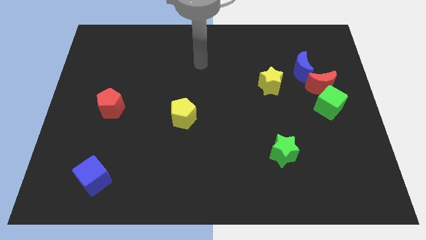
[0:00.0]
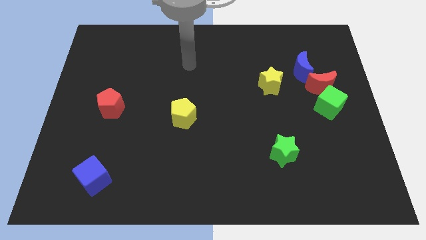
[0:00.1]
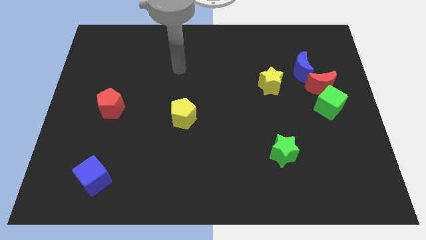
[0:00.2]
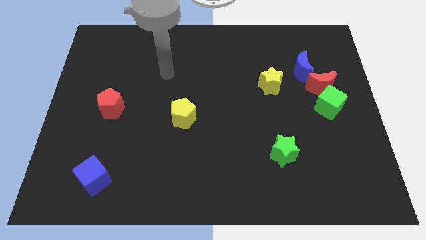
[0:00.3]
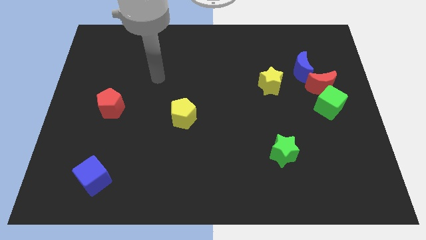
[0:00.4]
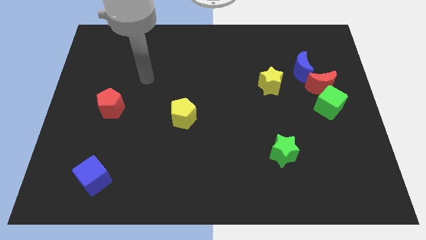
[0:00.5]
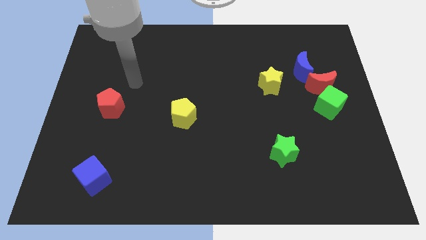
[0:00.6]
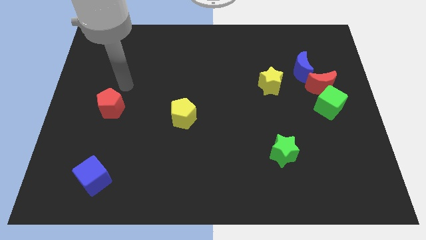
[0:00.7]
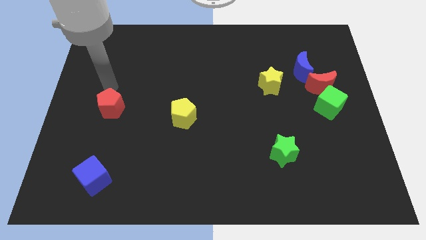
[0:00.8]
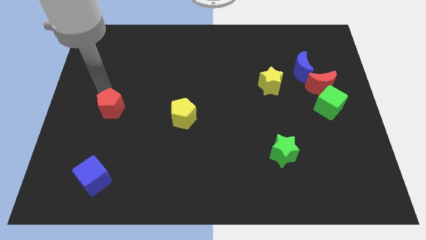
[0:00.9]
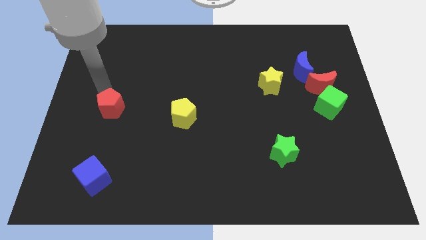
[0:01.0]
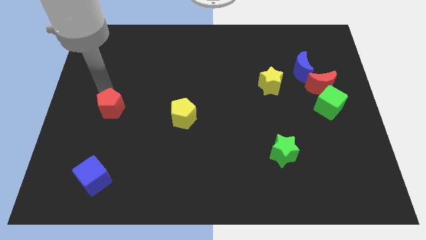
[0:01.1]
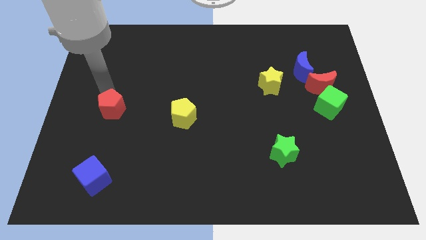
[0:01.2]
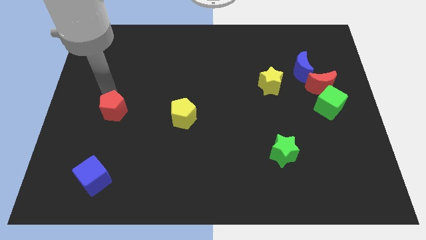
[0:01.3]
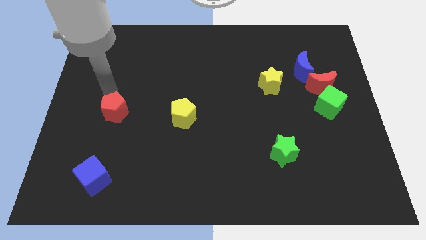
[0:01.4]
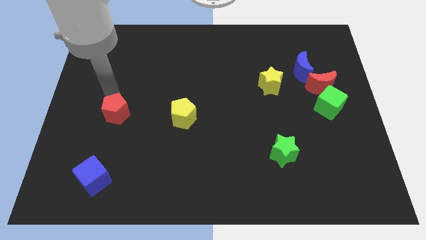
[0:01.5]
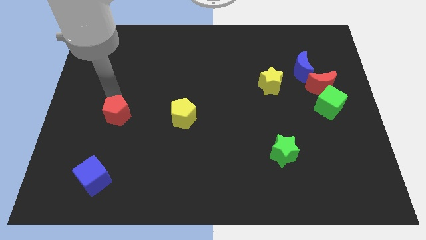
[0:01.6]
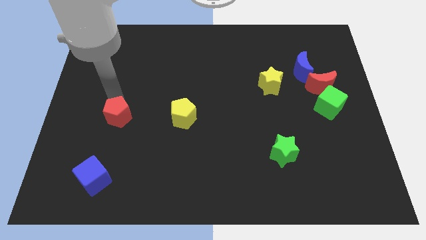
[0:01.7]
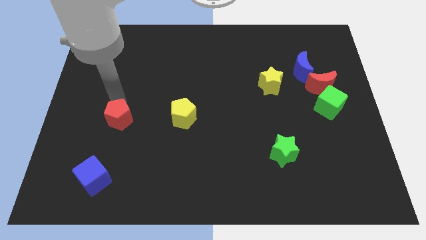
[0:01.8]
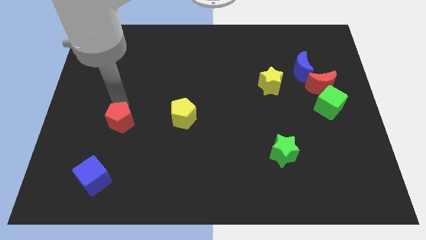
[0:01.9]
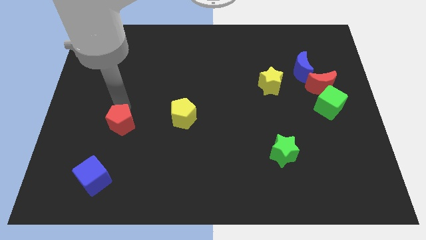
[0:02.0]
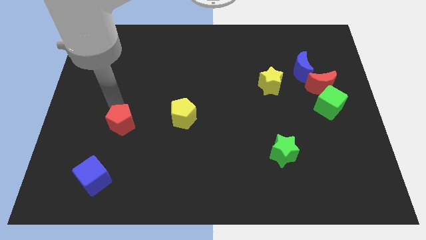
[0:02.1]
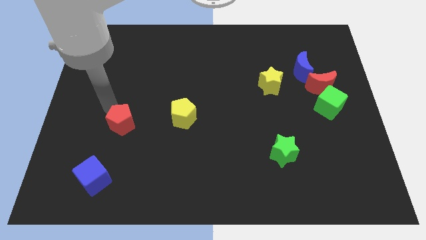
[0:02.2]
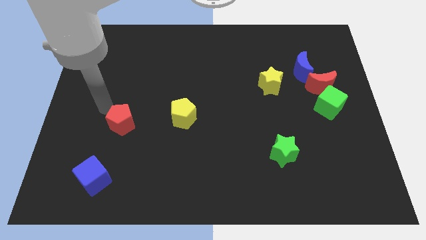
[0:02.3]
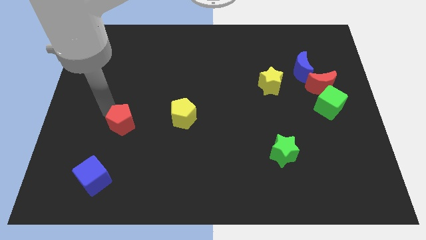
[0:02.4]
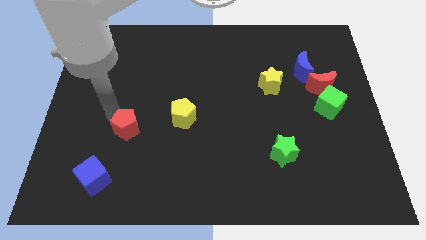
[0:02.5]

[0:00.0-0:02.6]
slightly move the red pentagon down and right diagonally

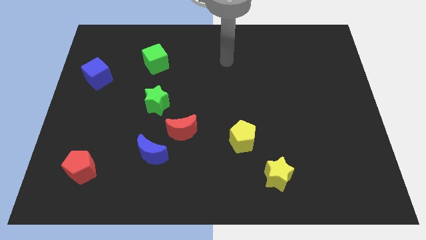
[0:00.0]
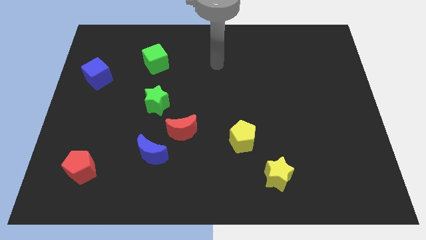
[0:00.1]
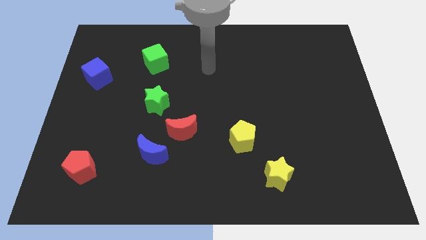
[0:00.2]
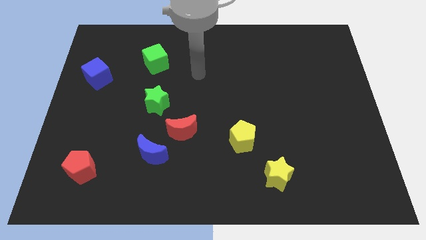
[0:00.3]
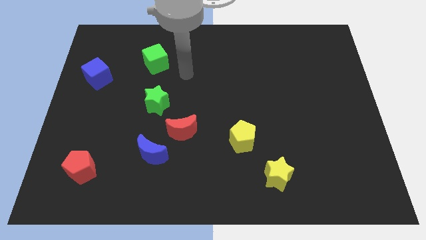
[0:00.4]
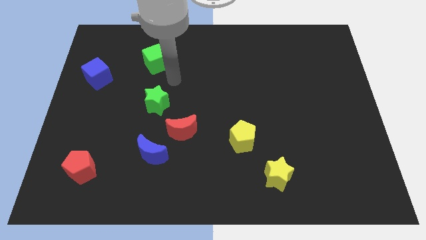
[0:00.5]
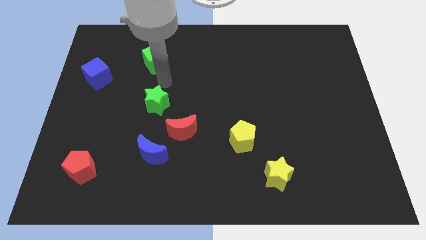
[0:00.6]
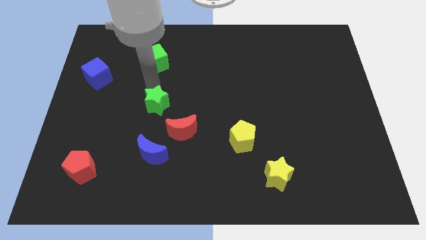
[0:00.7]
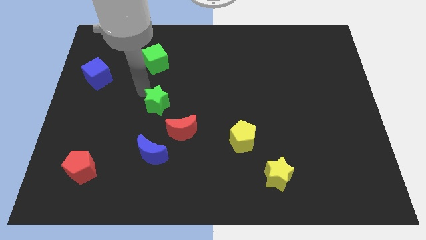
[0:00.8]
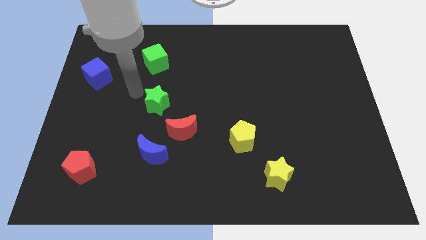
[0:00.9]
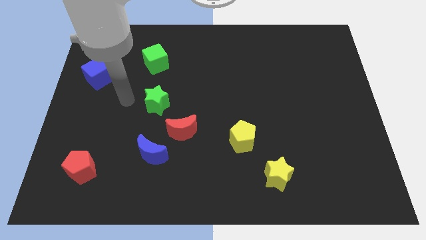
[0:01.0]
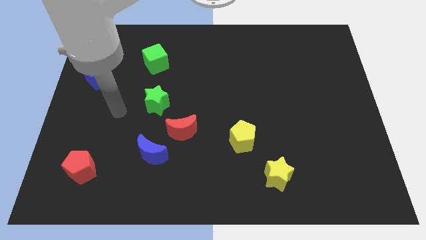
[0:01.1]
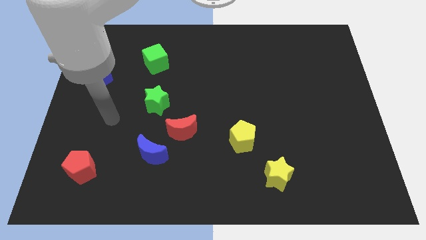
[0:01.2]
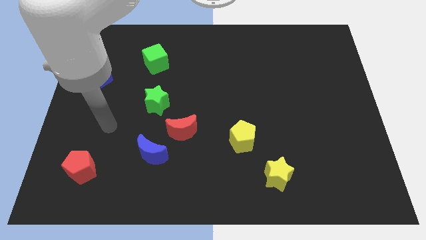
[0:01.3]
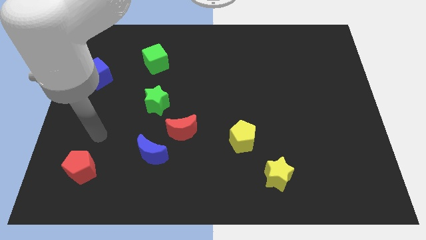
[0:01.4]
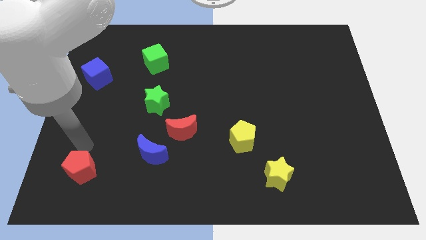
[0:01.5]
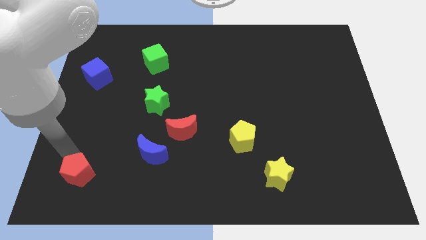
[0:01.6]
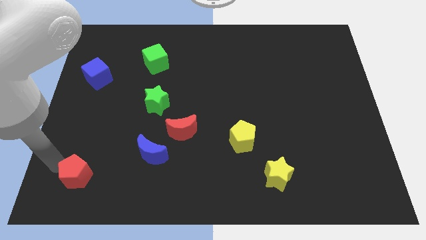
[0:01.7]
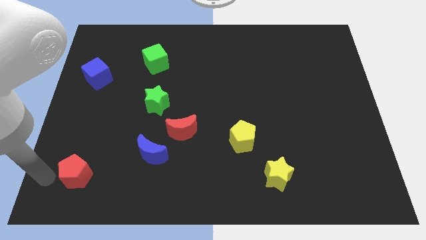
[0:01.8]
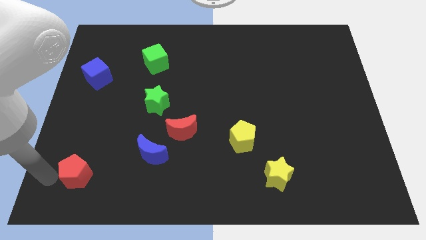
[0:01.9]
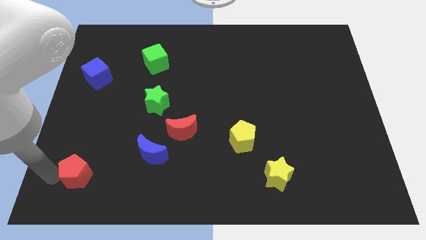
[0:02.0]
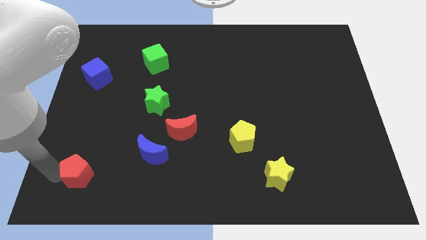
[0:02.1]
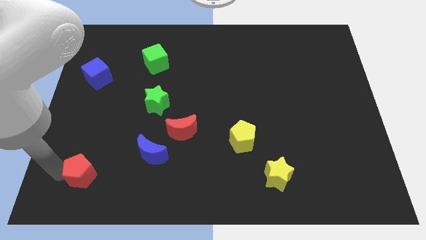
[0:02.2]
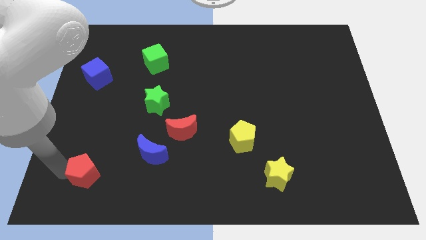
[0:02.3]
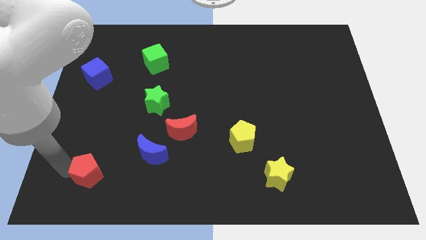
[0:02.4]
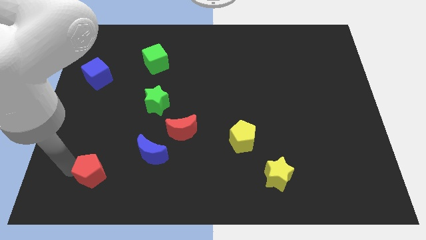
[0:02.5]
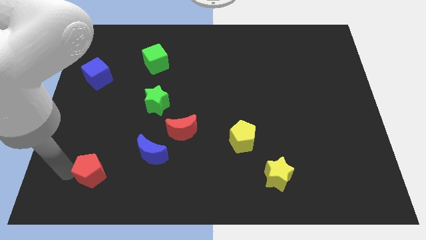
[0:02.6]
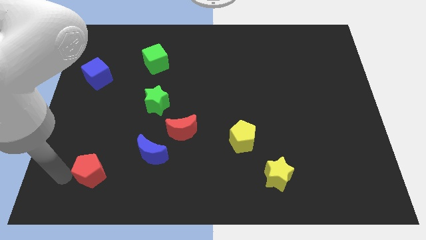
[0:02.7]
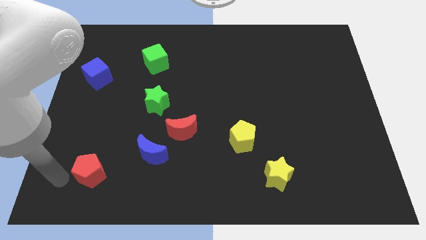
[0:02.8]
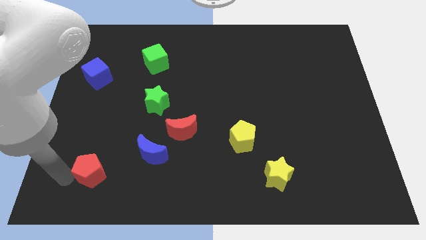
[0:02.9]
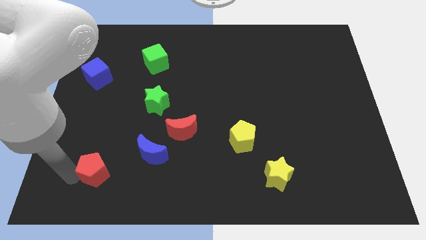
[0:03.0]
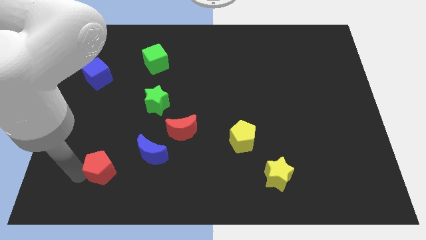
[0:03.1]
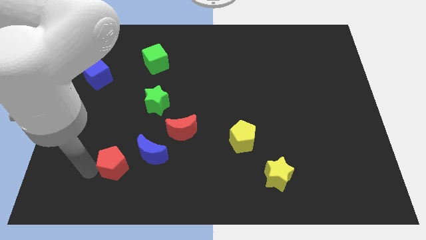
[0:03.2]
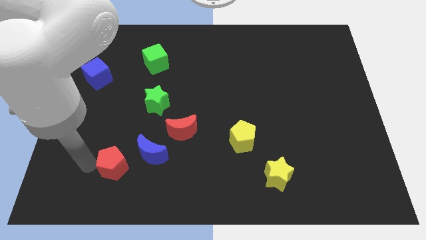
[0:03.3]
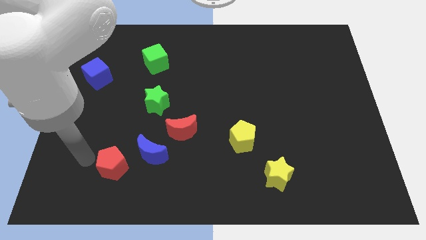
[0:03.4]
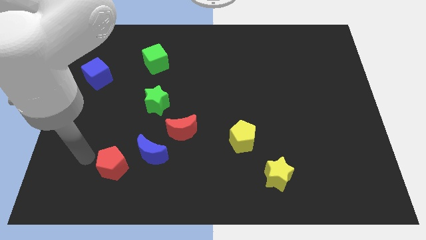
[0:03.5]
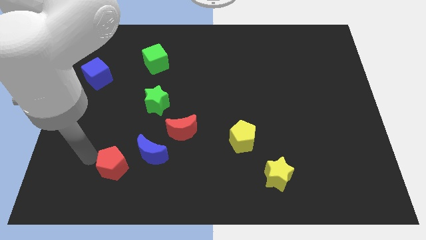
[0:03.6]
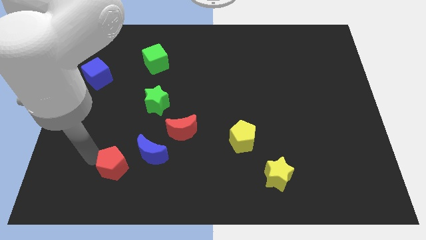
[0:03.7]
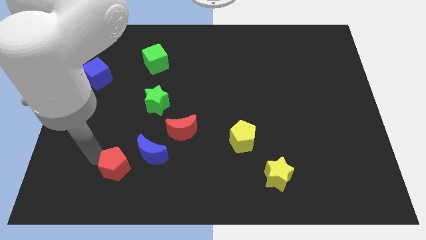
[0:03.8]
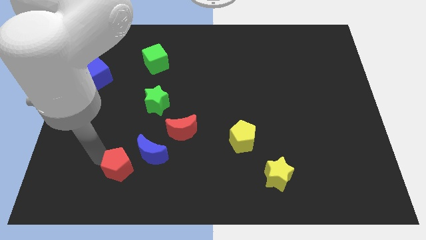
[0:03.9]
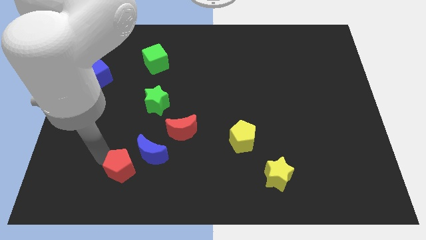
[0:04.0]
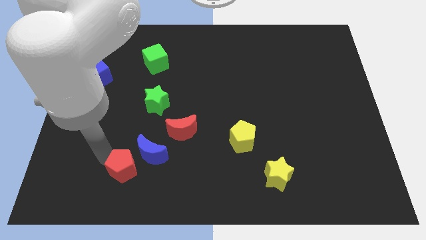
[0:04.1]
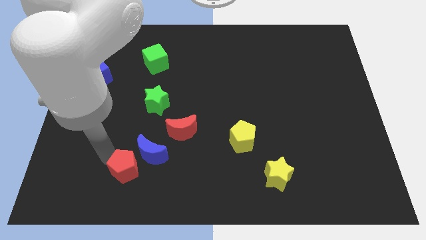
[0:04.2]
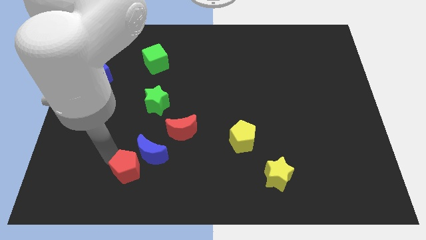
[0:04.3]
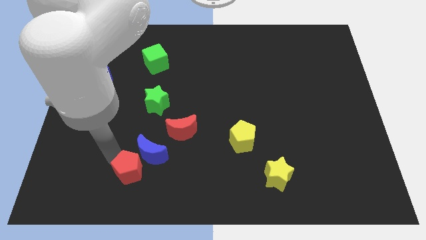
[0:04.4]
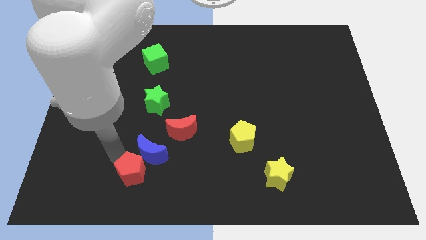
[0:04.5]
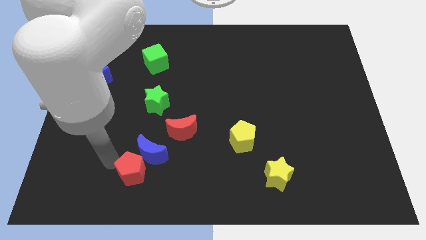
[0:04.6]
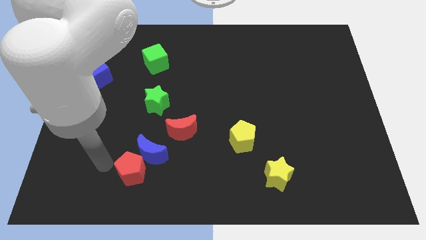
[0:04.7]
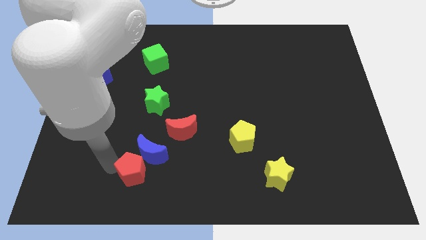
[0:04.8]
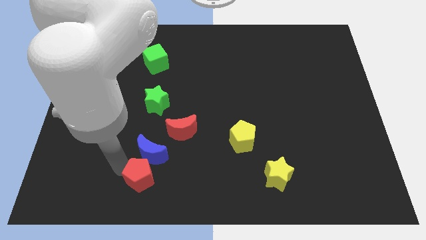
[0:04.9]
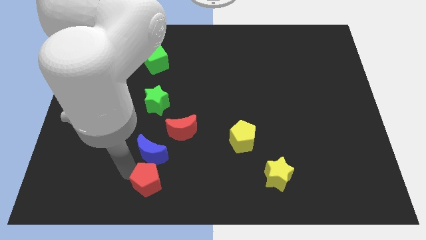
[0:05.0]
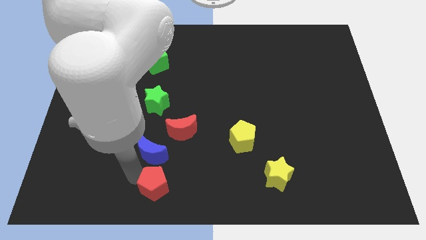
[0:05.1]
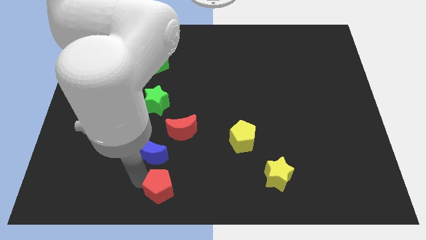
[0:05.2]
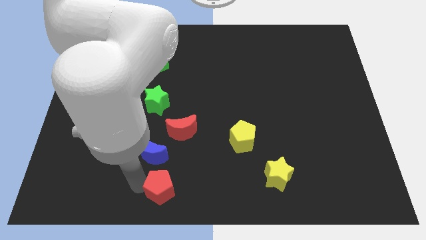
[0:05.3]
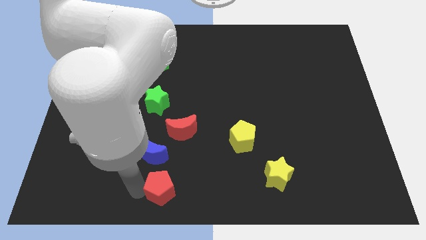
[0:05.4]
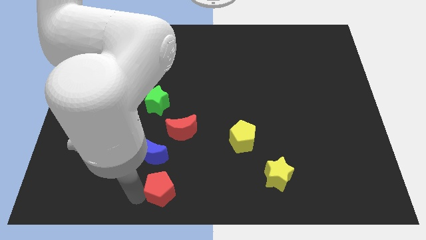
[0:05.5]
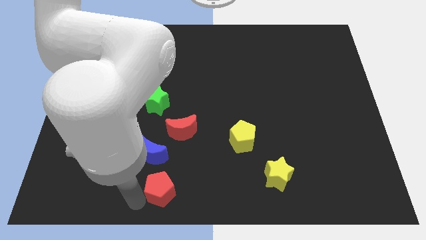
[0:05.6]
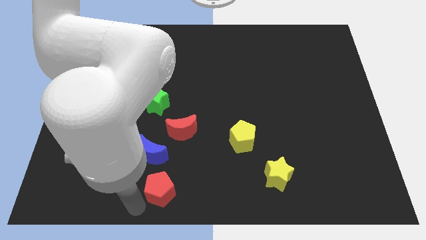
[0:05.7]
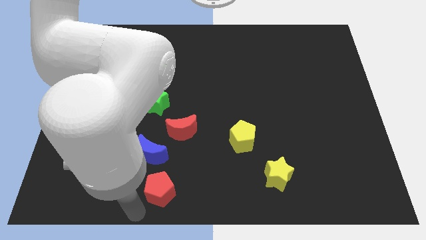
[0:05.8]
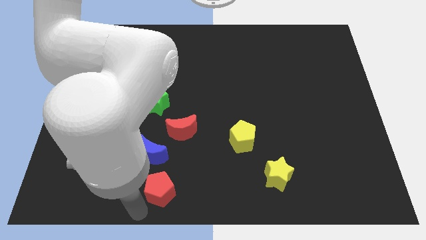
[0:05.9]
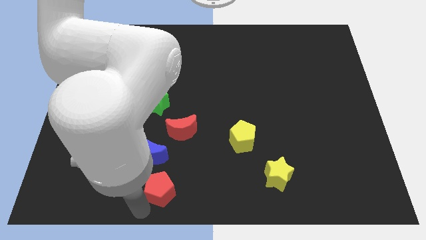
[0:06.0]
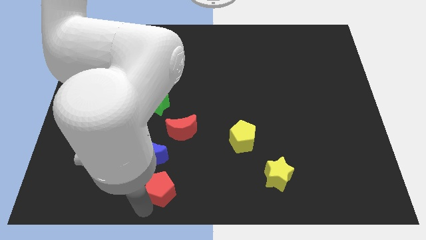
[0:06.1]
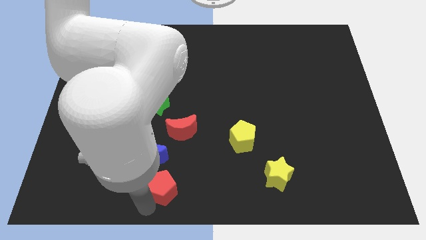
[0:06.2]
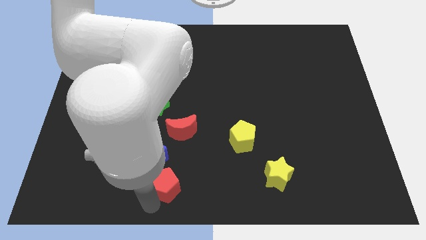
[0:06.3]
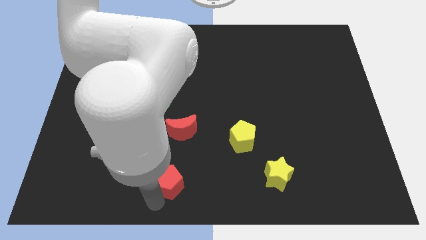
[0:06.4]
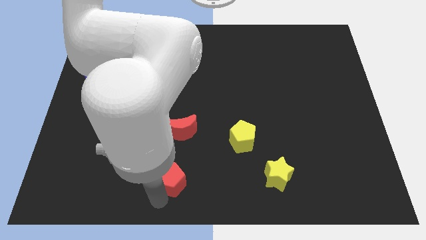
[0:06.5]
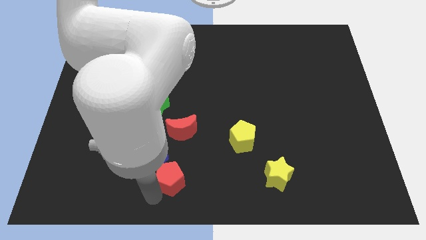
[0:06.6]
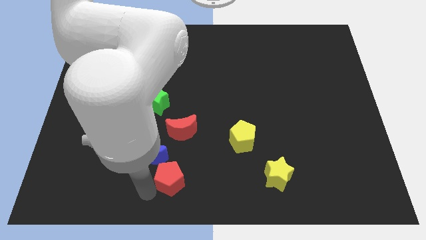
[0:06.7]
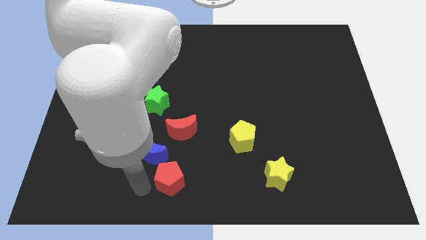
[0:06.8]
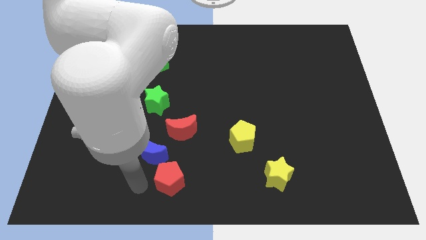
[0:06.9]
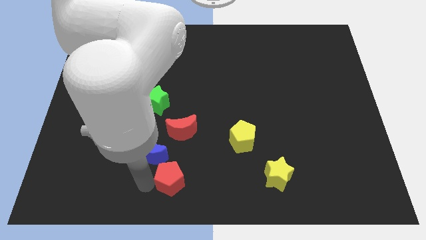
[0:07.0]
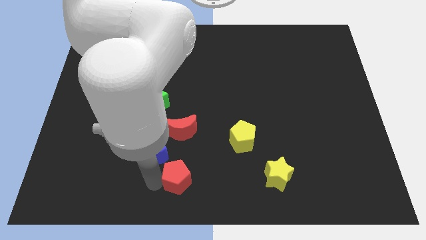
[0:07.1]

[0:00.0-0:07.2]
move the red pentagon to the right
